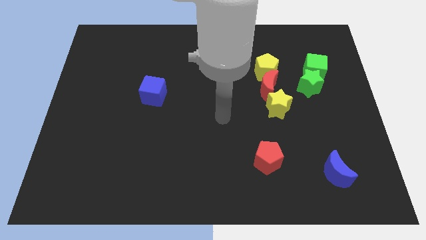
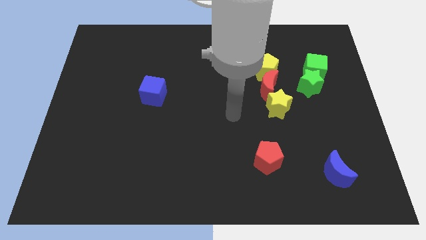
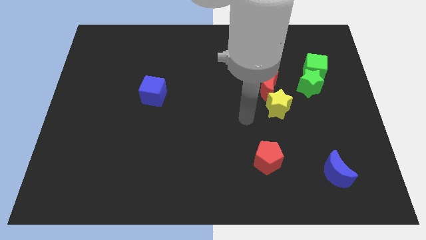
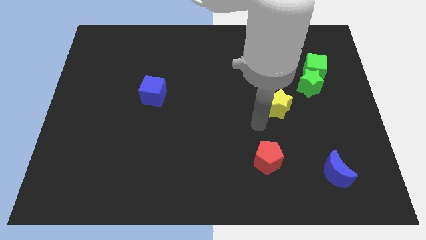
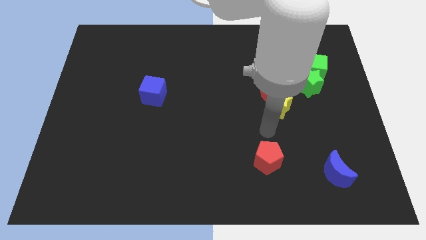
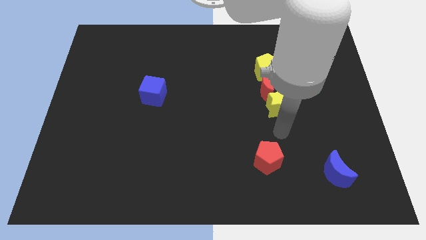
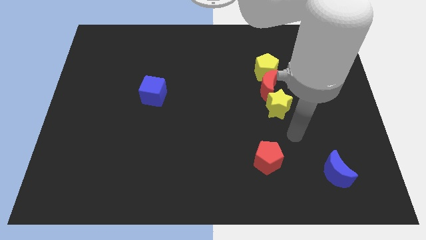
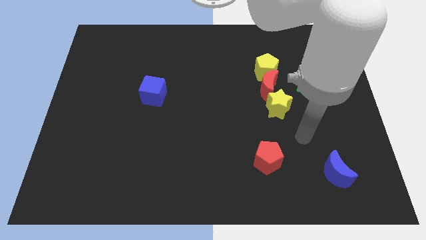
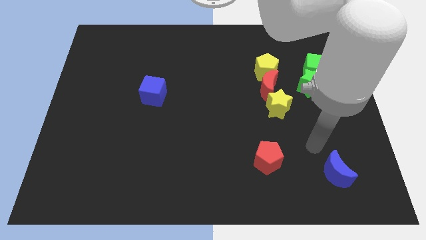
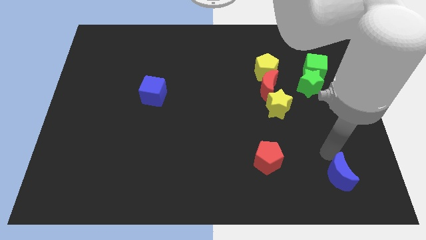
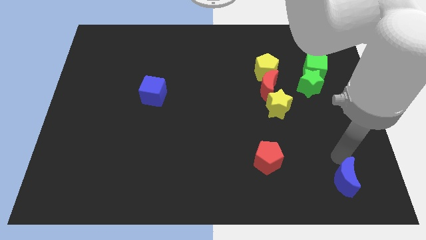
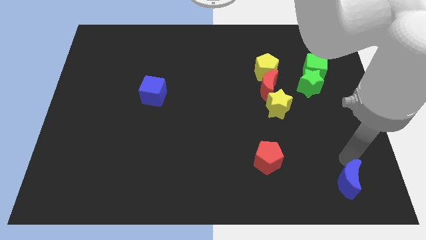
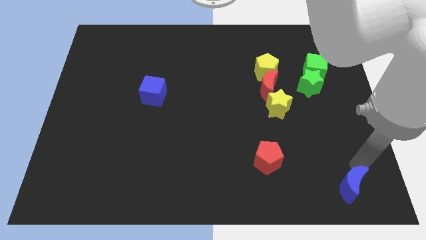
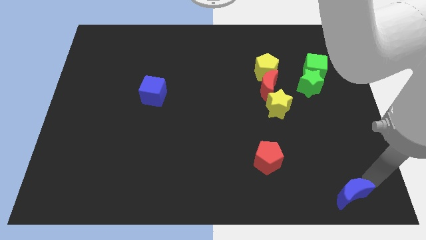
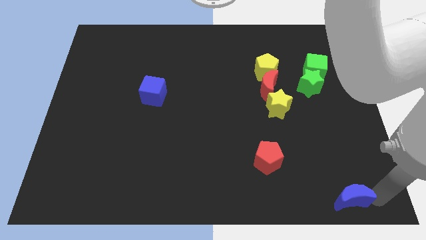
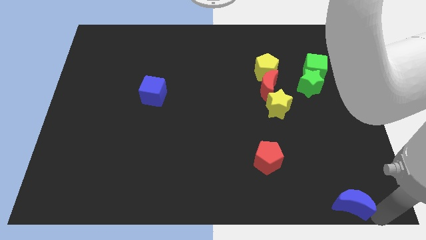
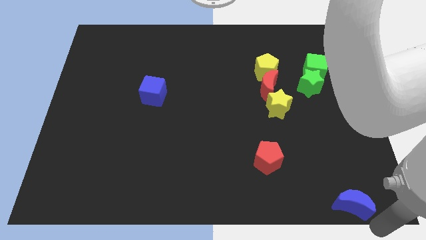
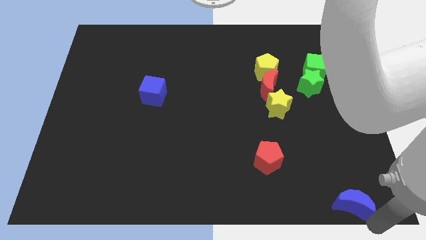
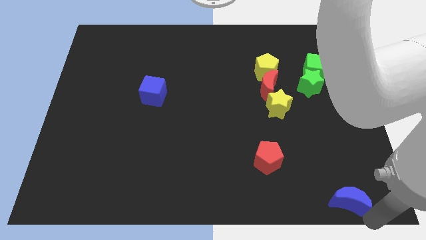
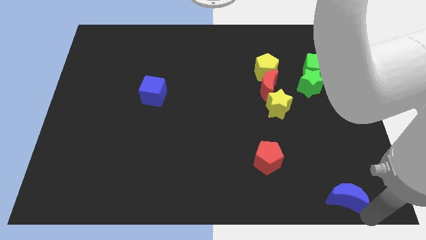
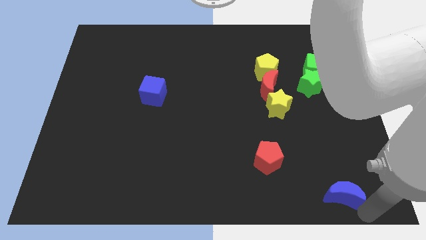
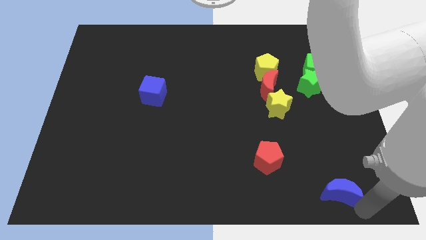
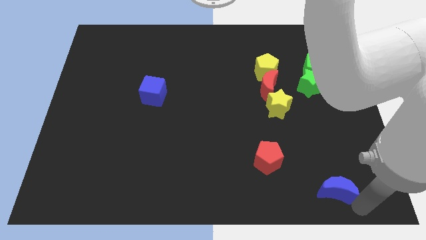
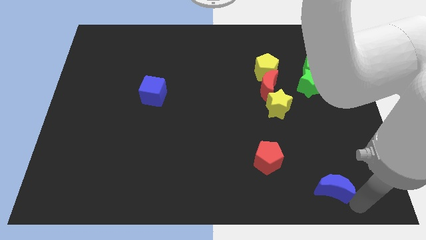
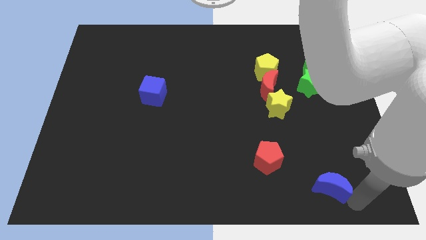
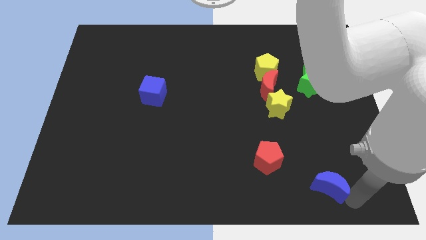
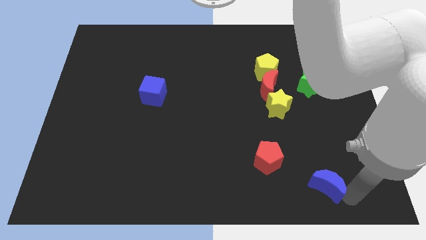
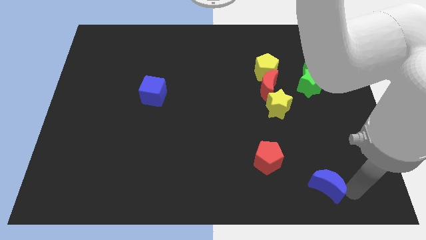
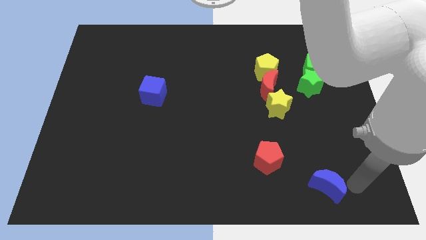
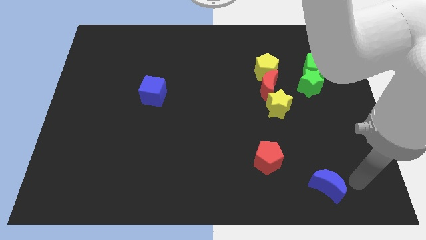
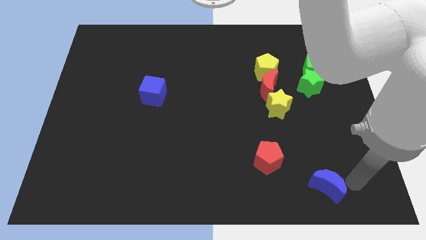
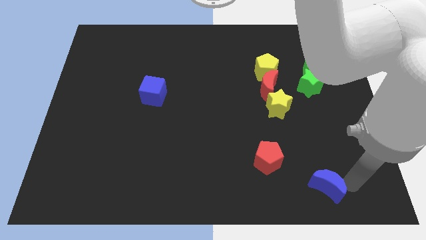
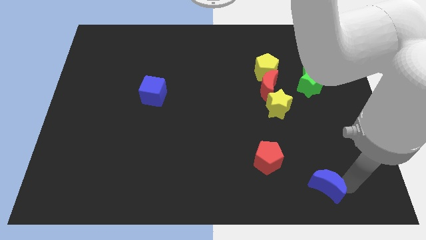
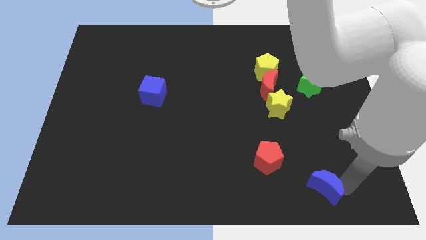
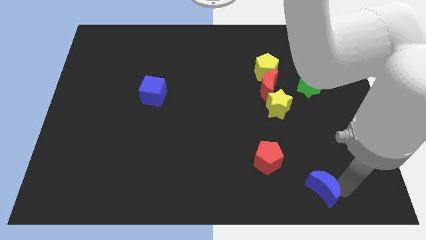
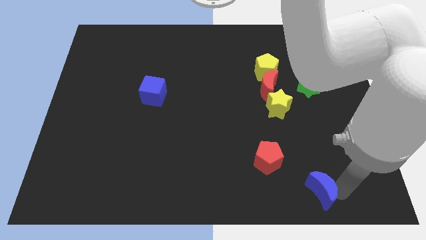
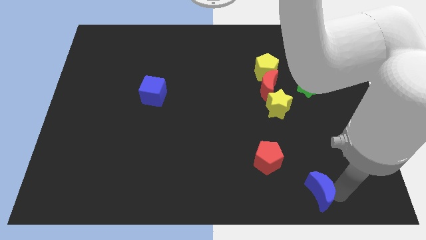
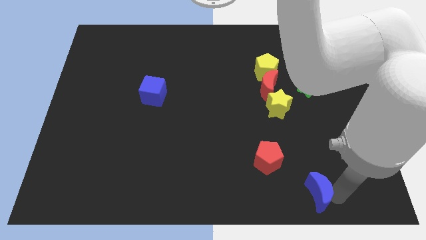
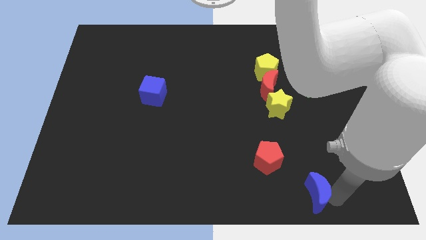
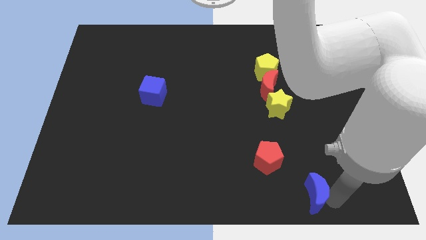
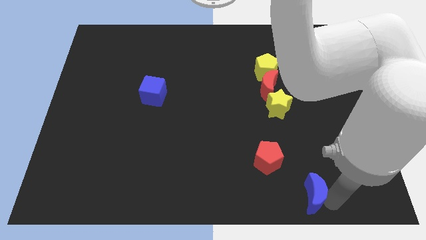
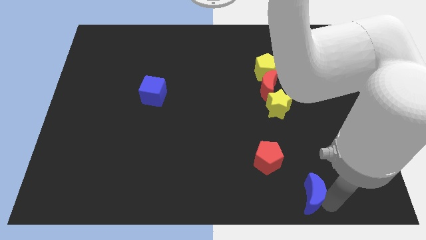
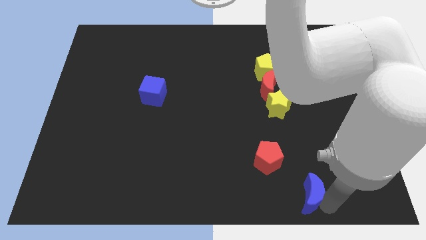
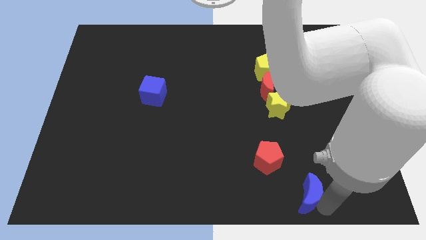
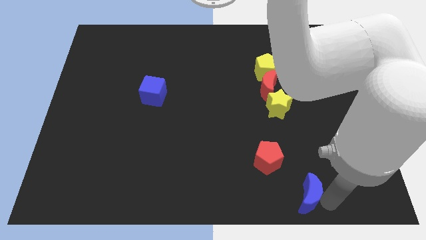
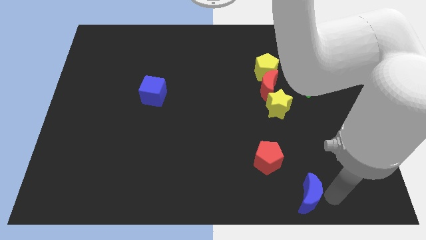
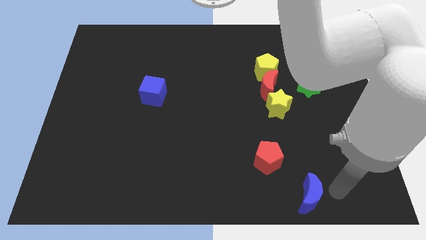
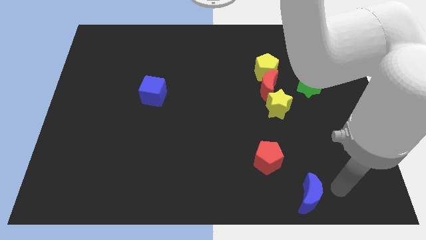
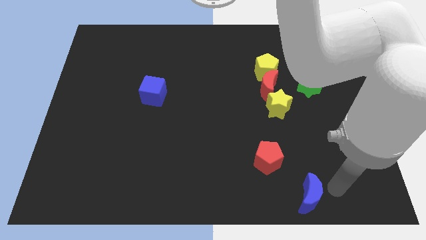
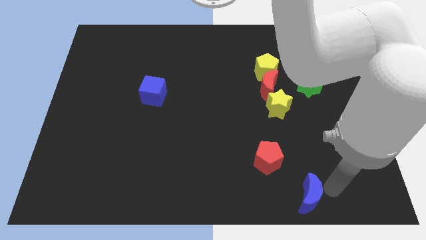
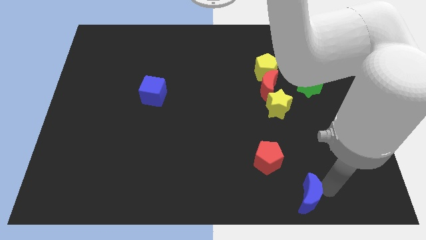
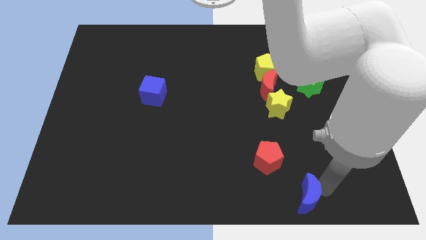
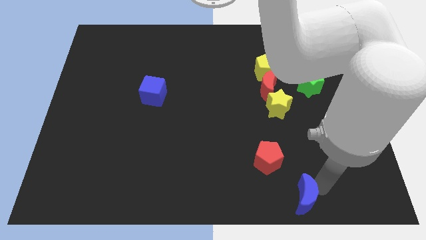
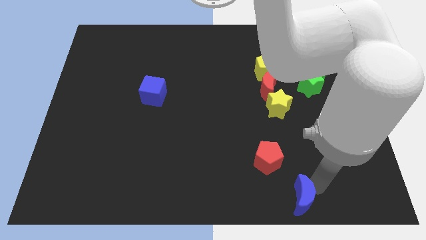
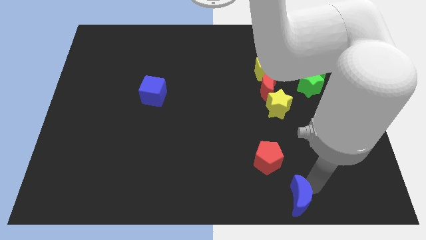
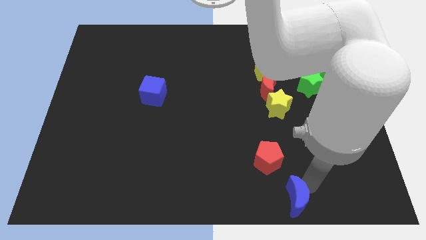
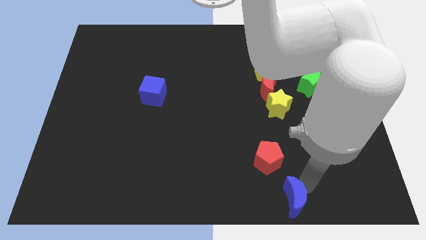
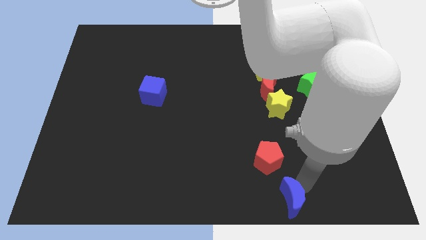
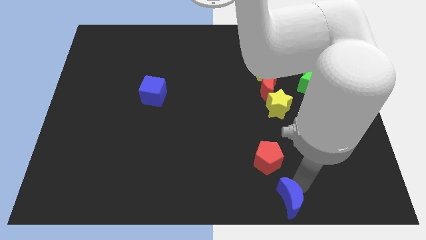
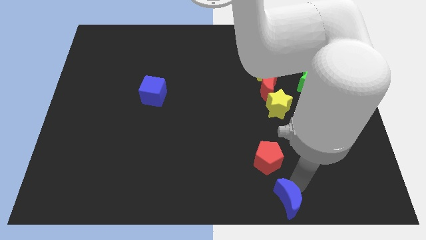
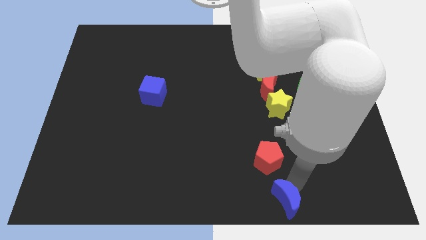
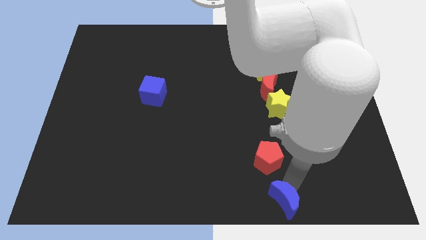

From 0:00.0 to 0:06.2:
slide the blue moon to the bottom
